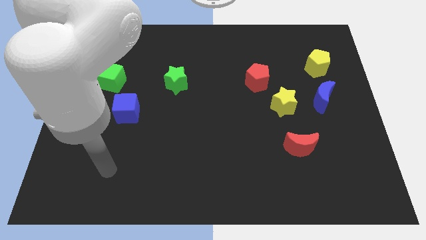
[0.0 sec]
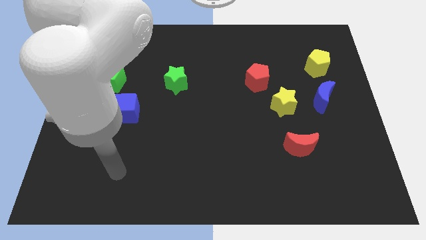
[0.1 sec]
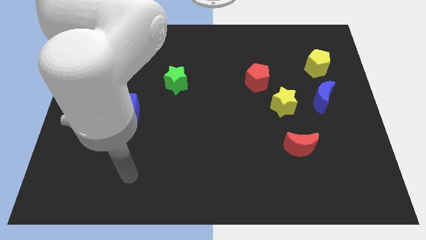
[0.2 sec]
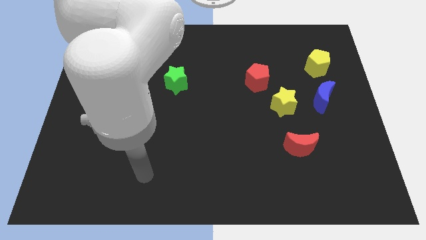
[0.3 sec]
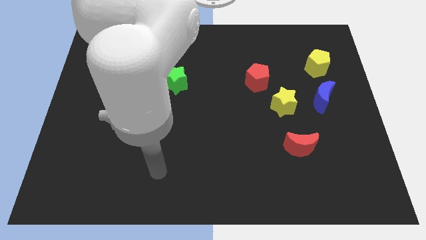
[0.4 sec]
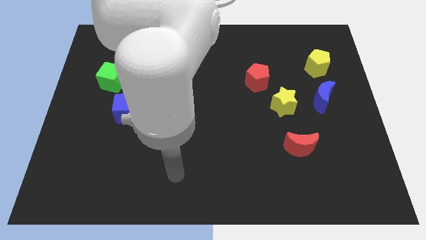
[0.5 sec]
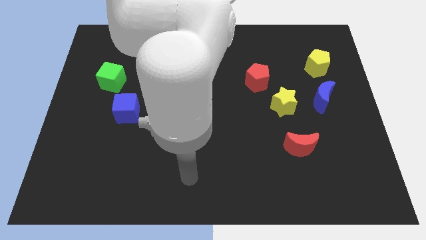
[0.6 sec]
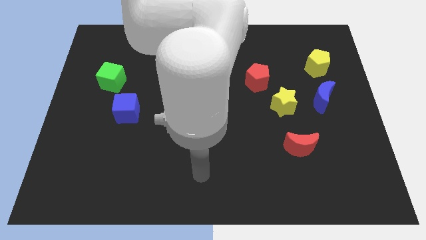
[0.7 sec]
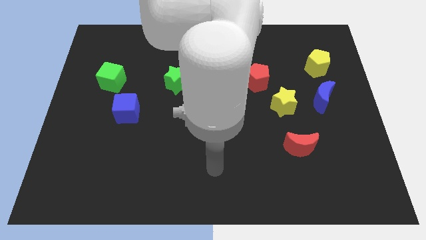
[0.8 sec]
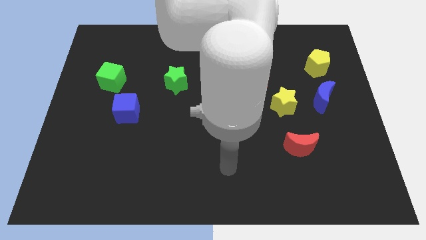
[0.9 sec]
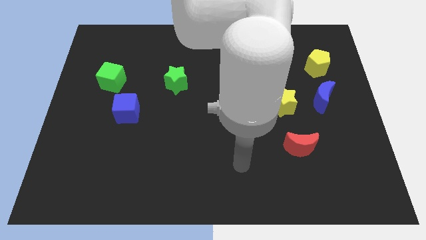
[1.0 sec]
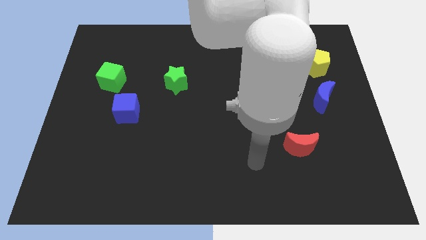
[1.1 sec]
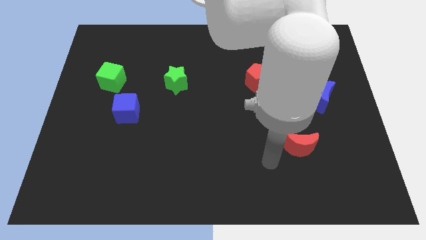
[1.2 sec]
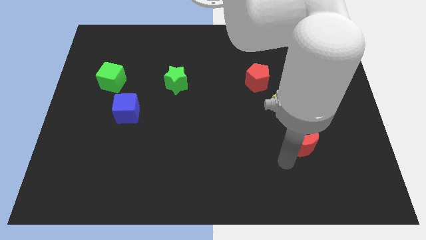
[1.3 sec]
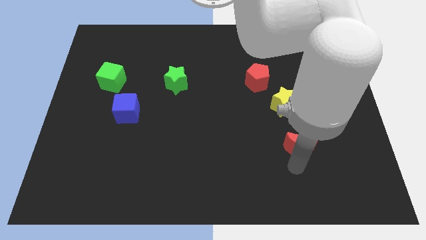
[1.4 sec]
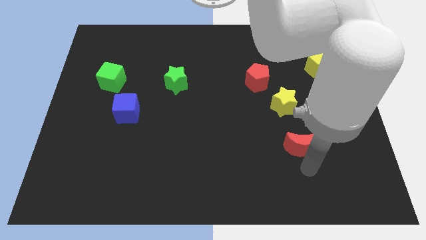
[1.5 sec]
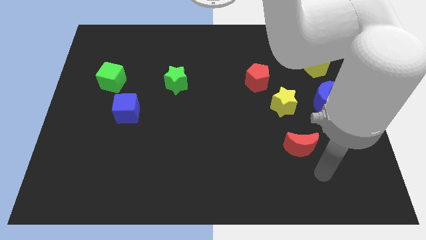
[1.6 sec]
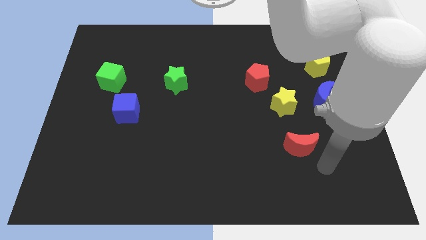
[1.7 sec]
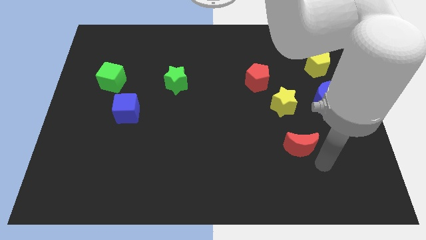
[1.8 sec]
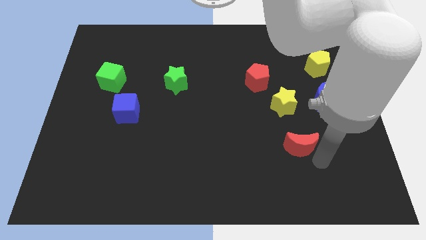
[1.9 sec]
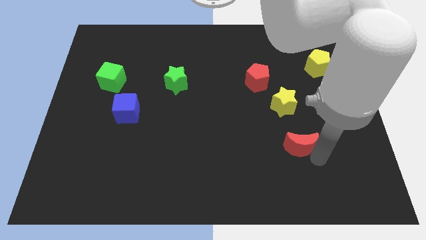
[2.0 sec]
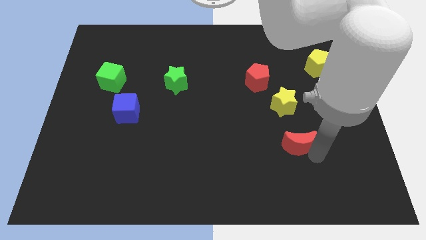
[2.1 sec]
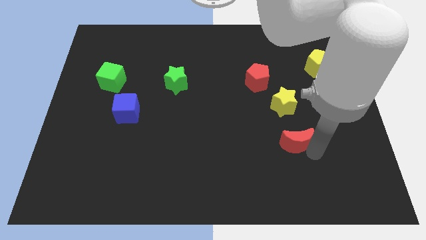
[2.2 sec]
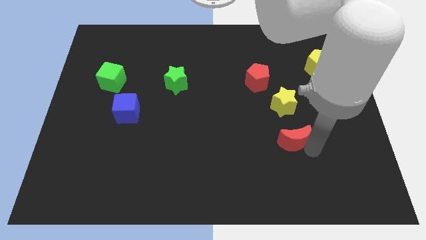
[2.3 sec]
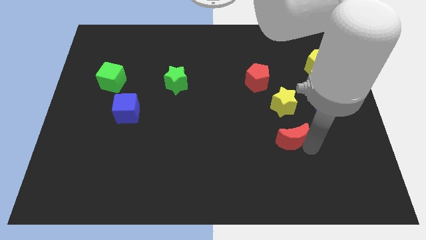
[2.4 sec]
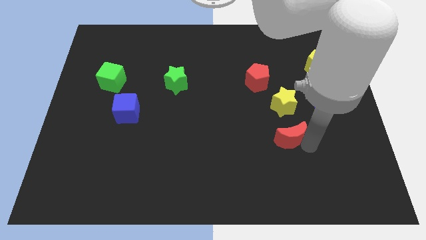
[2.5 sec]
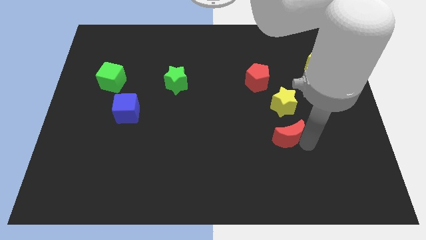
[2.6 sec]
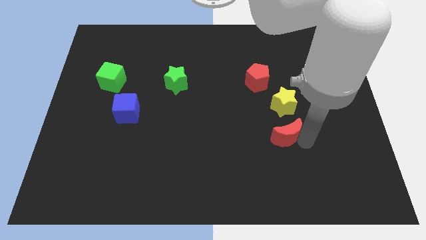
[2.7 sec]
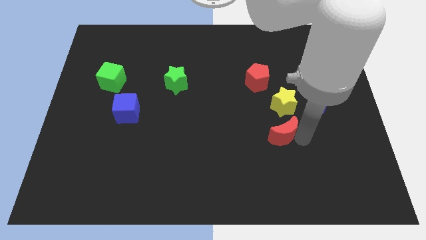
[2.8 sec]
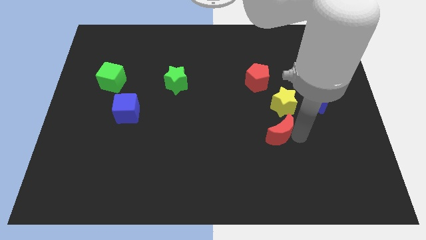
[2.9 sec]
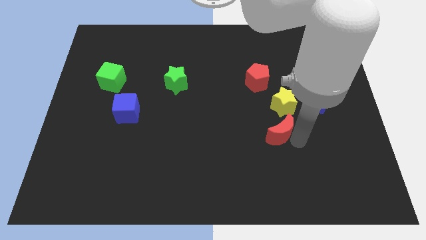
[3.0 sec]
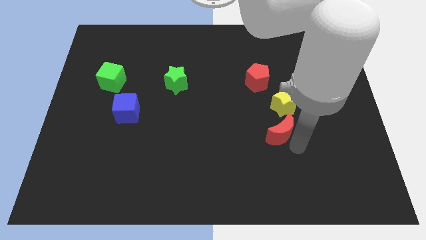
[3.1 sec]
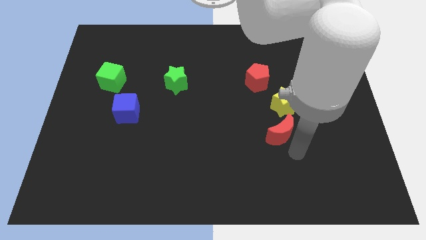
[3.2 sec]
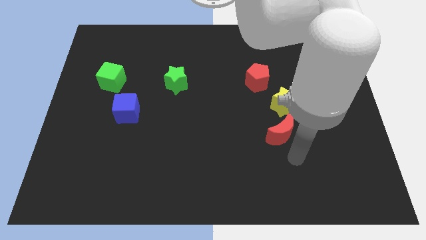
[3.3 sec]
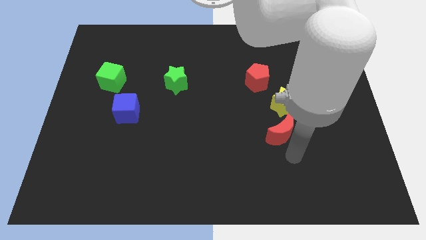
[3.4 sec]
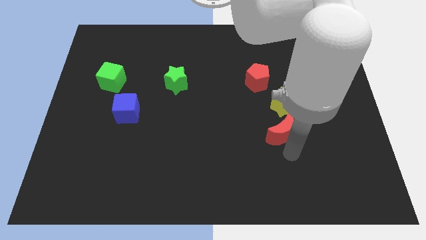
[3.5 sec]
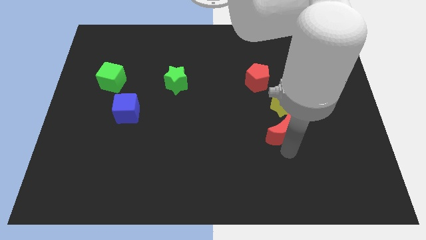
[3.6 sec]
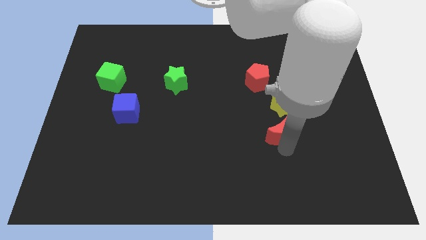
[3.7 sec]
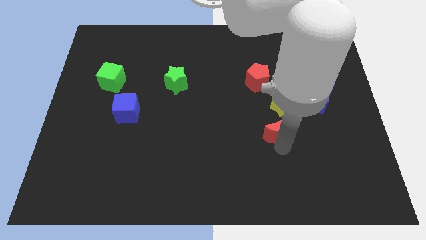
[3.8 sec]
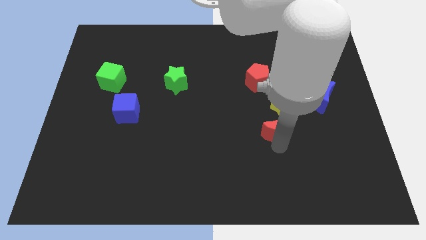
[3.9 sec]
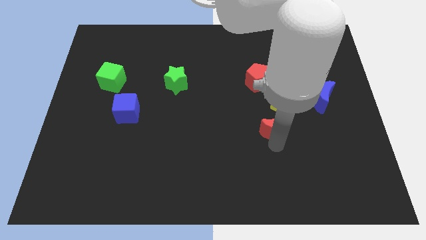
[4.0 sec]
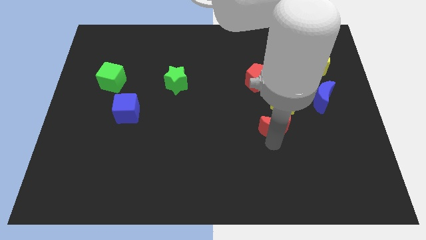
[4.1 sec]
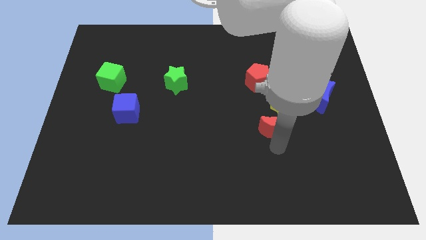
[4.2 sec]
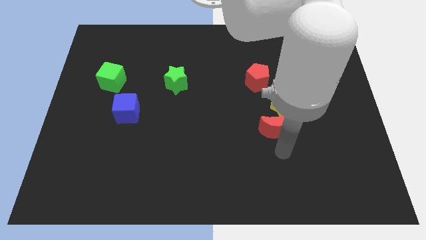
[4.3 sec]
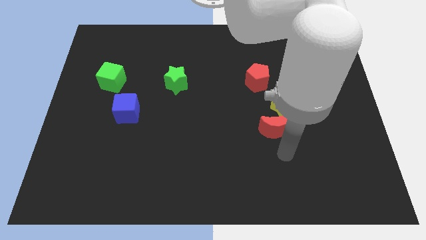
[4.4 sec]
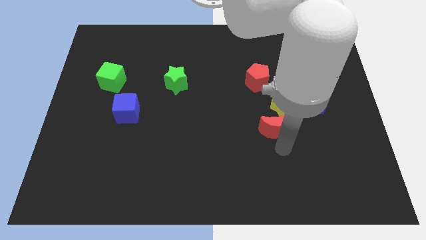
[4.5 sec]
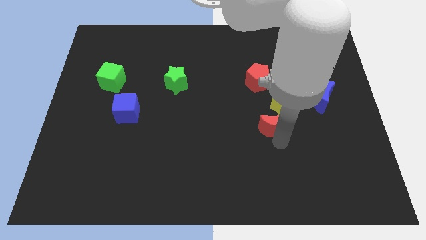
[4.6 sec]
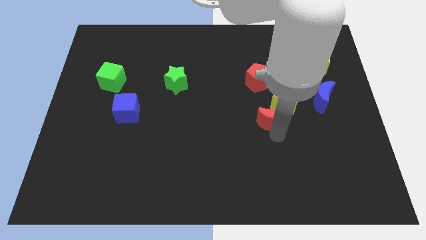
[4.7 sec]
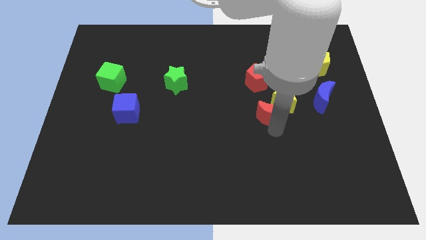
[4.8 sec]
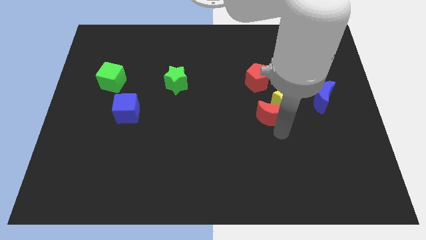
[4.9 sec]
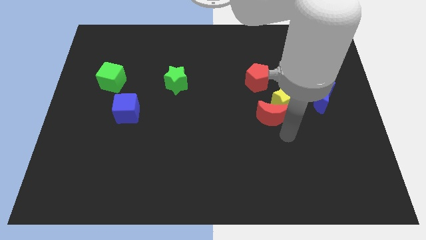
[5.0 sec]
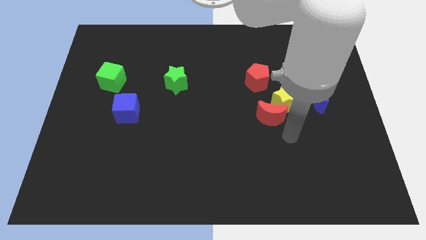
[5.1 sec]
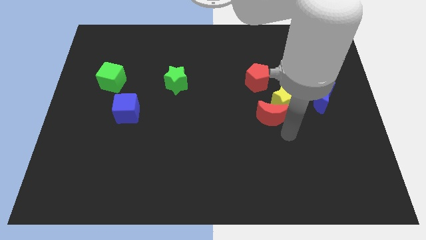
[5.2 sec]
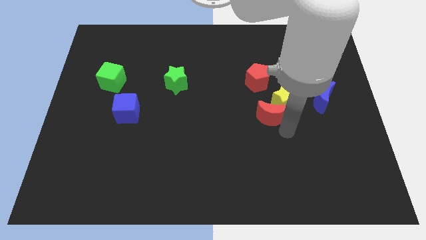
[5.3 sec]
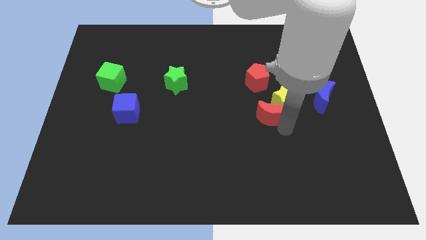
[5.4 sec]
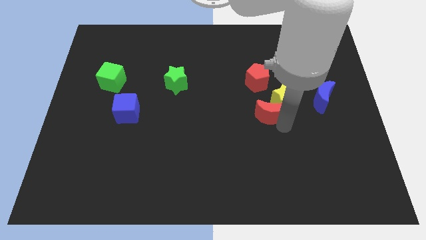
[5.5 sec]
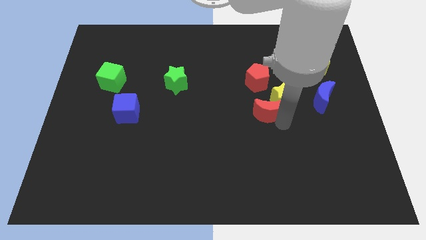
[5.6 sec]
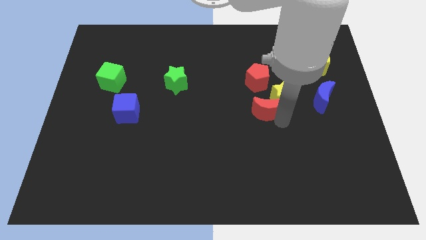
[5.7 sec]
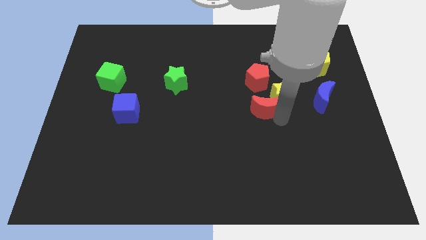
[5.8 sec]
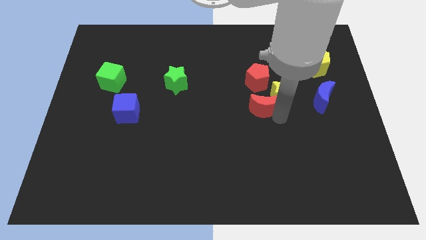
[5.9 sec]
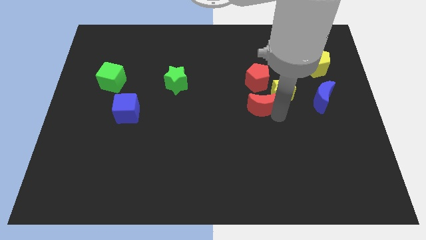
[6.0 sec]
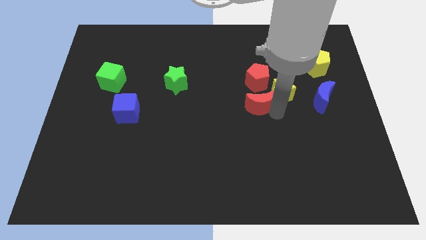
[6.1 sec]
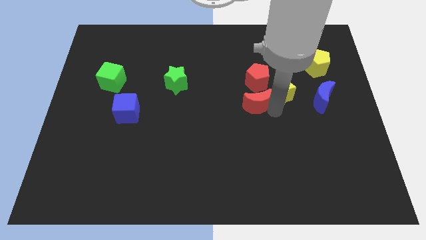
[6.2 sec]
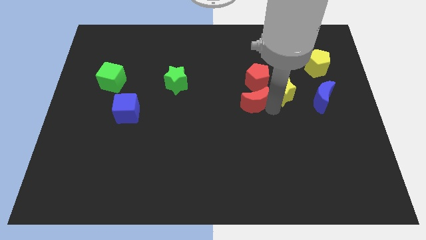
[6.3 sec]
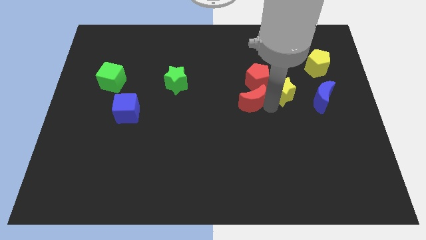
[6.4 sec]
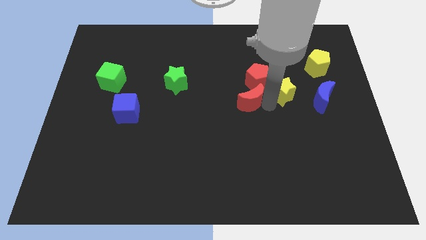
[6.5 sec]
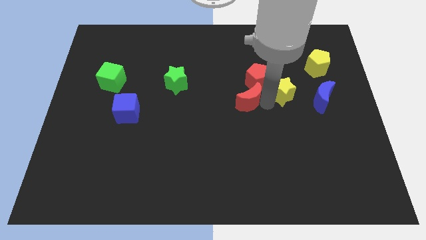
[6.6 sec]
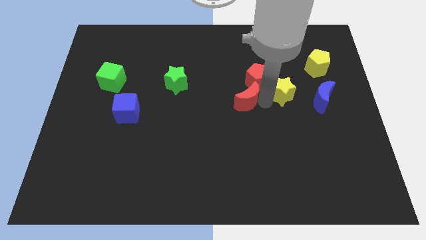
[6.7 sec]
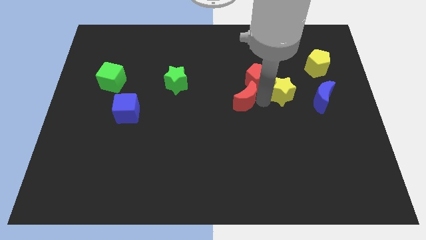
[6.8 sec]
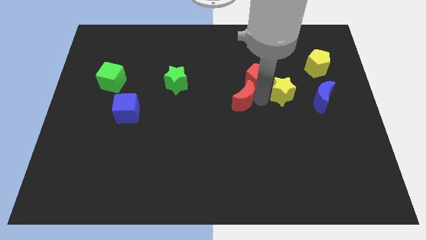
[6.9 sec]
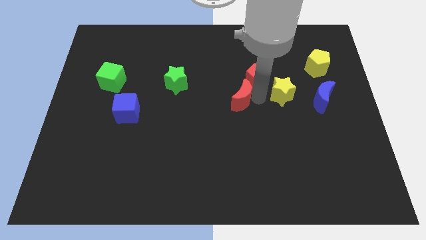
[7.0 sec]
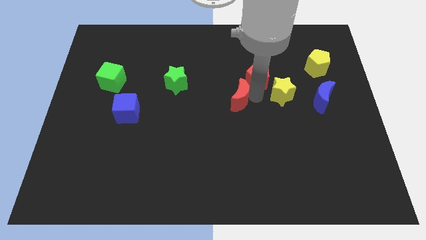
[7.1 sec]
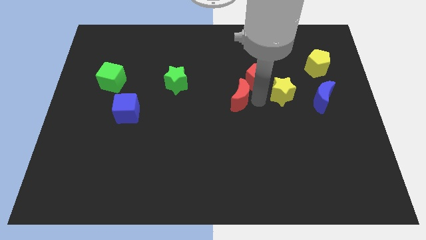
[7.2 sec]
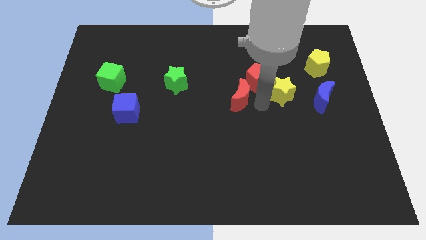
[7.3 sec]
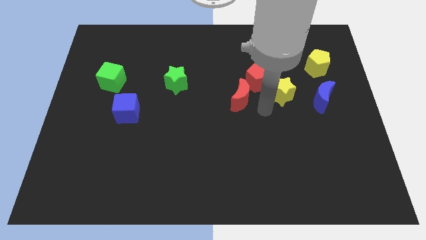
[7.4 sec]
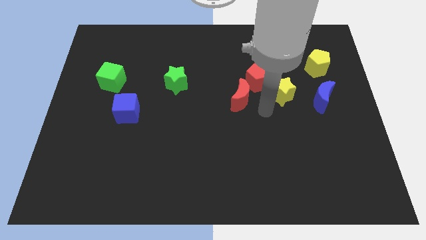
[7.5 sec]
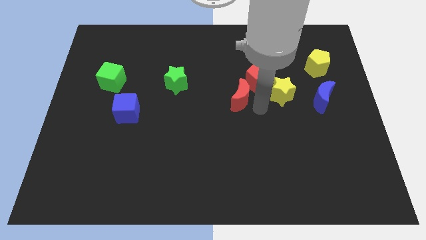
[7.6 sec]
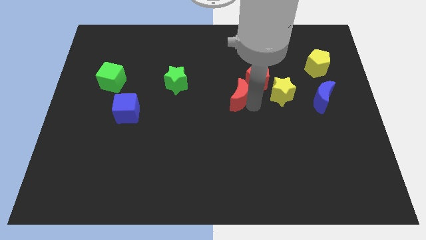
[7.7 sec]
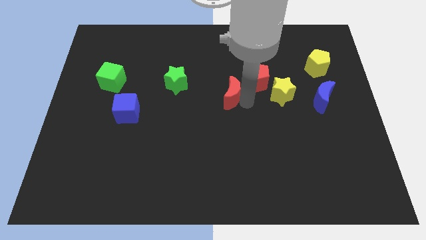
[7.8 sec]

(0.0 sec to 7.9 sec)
slide the red moon diagonally up and left

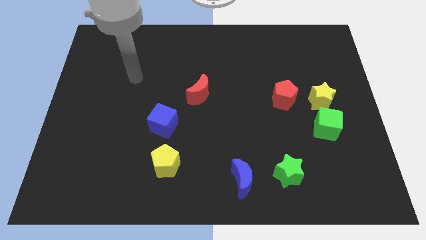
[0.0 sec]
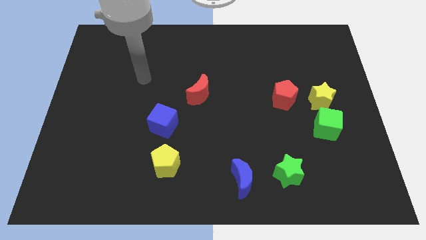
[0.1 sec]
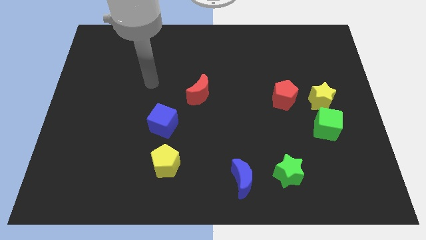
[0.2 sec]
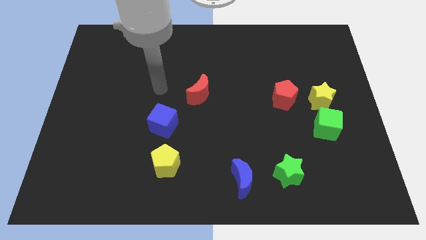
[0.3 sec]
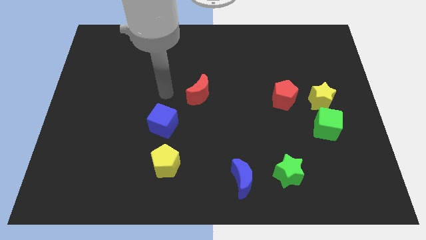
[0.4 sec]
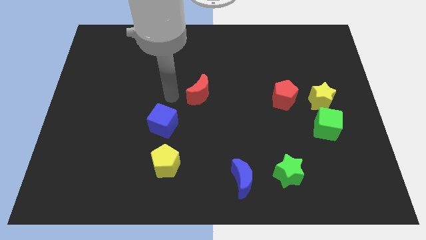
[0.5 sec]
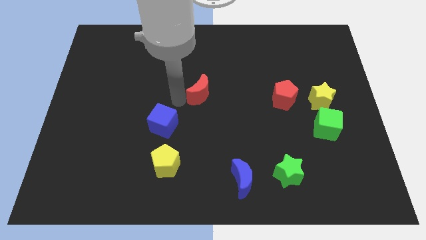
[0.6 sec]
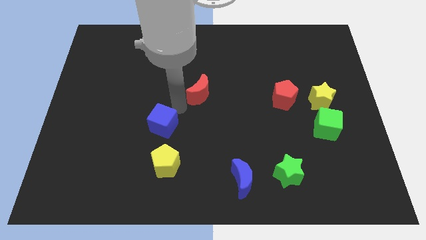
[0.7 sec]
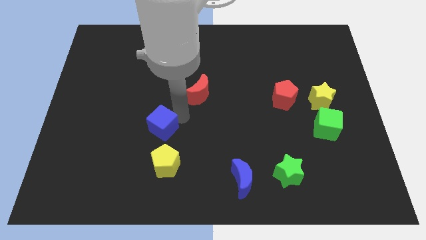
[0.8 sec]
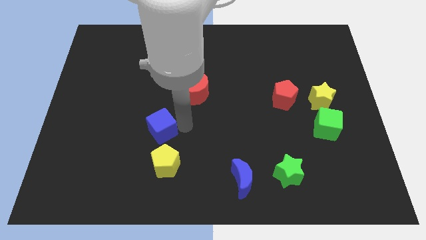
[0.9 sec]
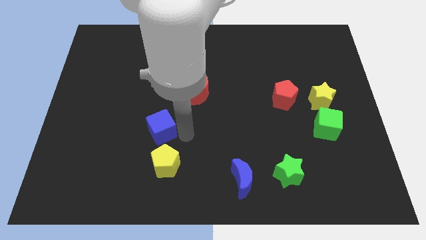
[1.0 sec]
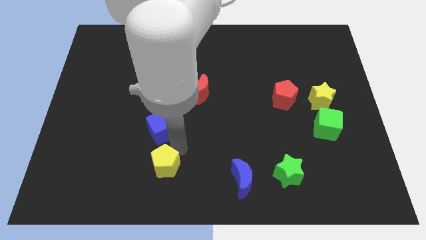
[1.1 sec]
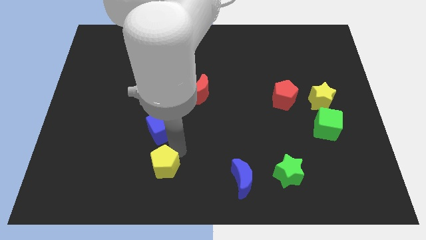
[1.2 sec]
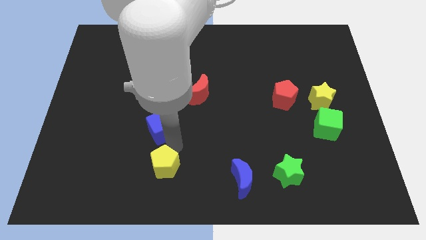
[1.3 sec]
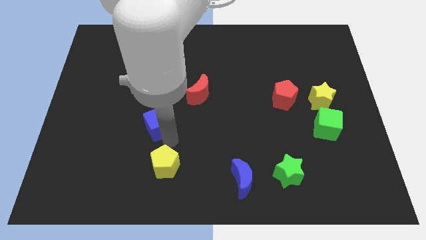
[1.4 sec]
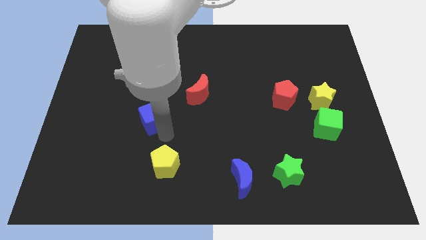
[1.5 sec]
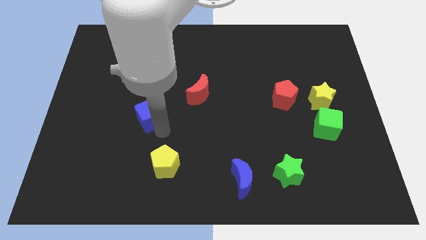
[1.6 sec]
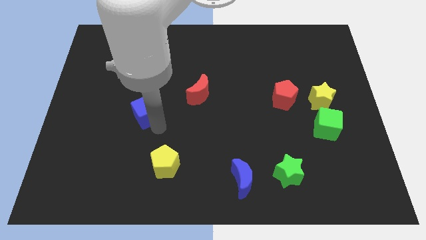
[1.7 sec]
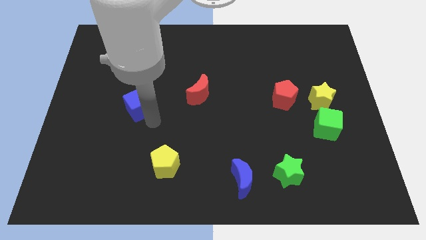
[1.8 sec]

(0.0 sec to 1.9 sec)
slightly push the blue cube upwards and then to the left
